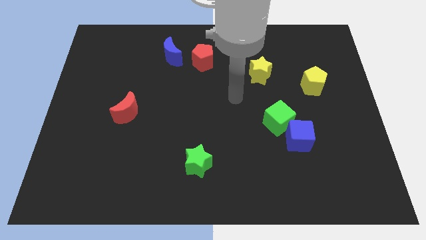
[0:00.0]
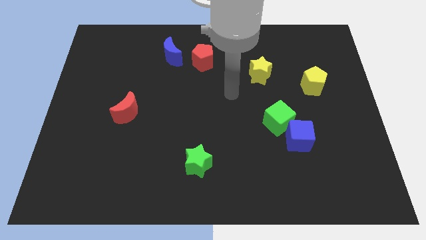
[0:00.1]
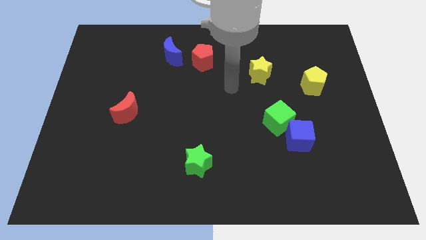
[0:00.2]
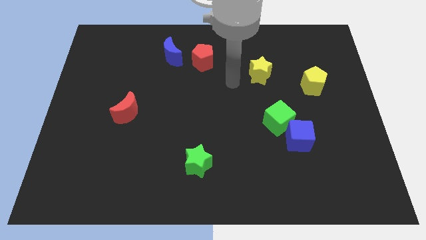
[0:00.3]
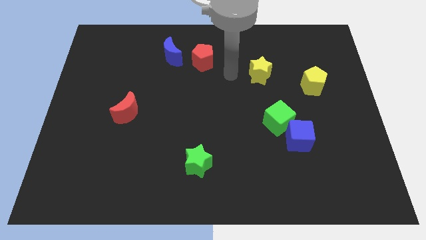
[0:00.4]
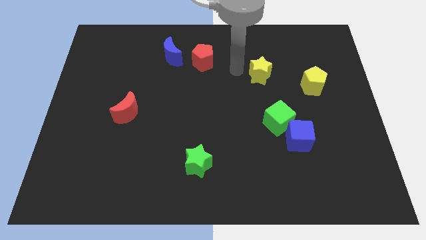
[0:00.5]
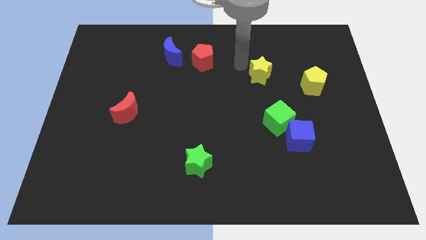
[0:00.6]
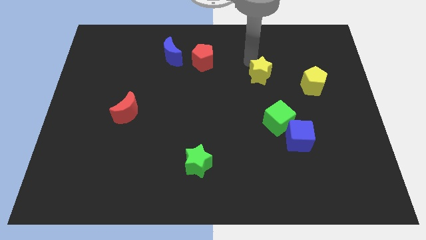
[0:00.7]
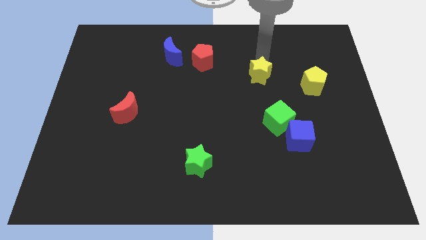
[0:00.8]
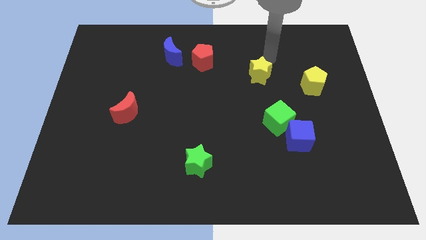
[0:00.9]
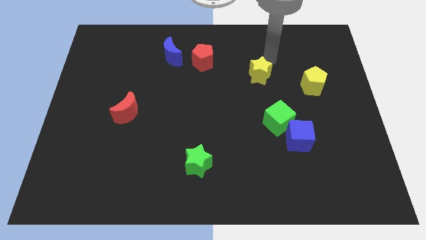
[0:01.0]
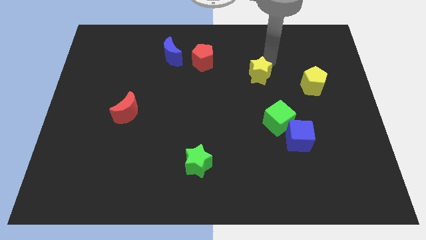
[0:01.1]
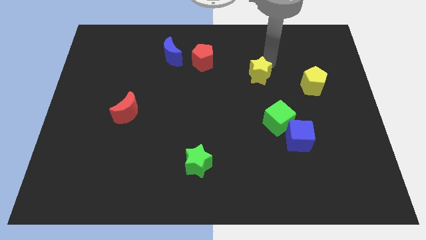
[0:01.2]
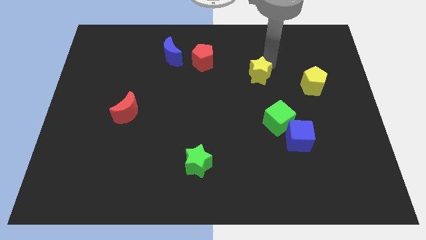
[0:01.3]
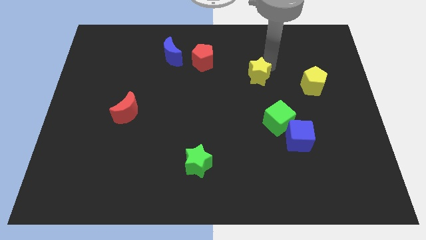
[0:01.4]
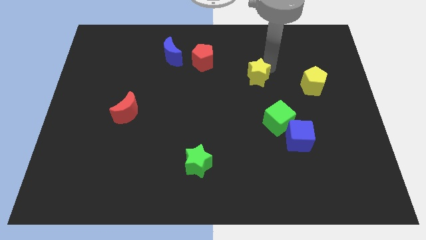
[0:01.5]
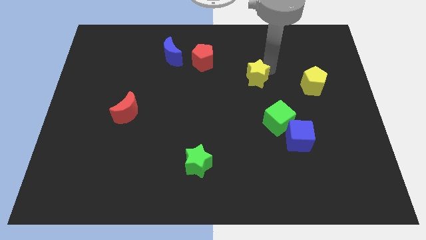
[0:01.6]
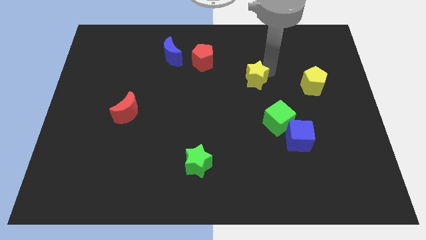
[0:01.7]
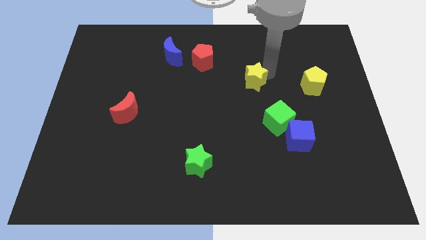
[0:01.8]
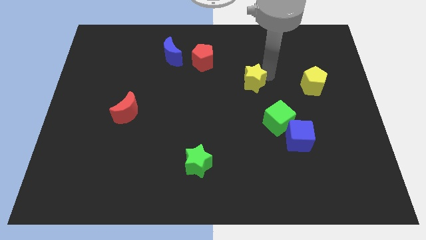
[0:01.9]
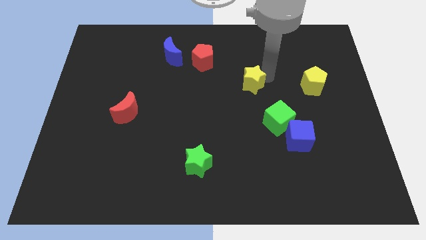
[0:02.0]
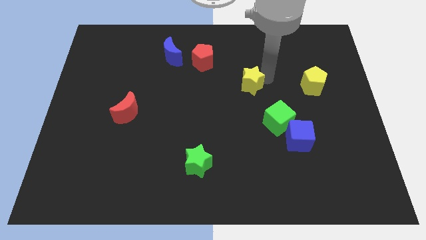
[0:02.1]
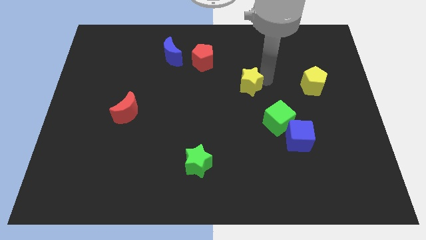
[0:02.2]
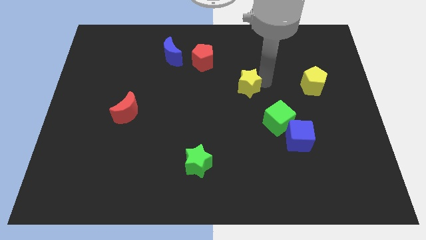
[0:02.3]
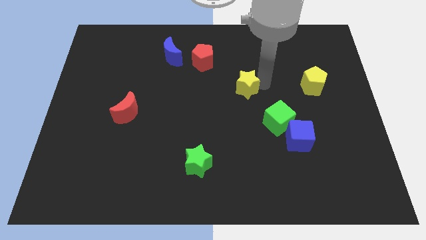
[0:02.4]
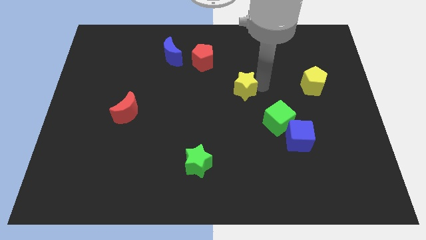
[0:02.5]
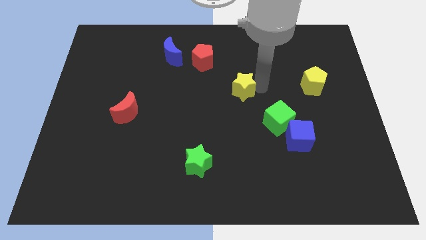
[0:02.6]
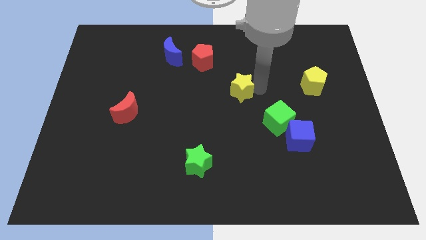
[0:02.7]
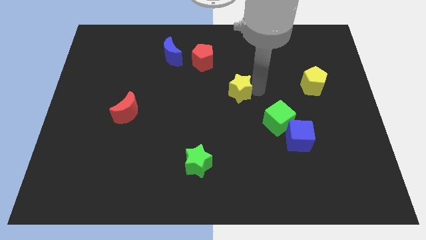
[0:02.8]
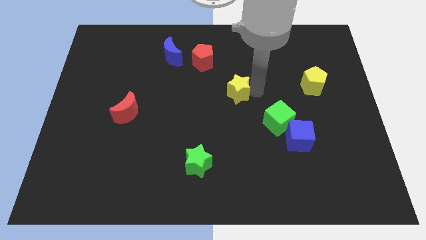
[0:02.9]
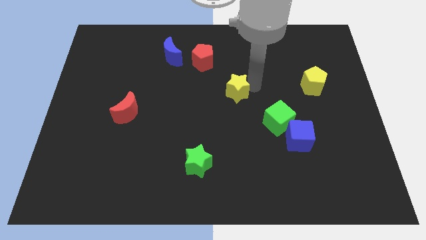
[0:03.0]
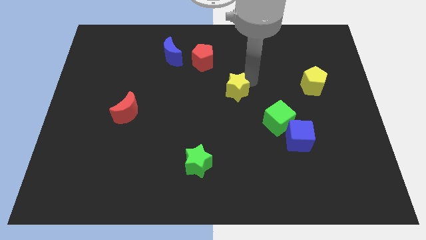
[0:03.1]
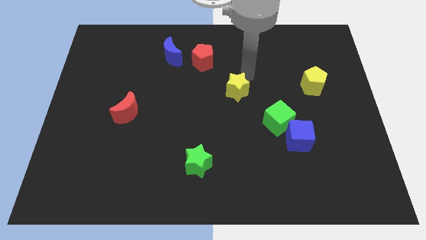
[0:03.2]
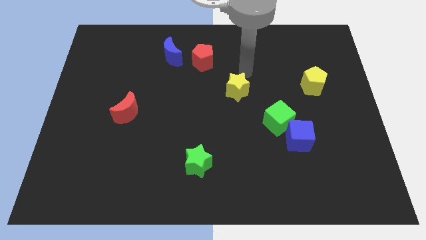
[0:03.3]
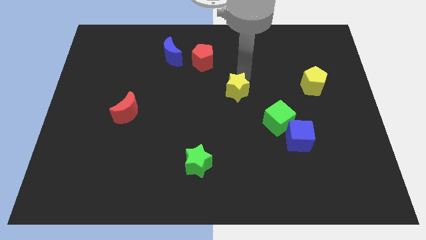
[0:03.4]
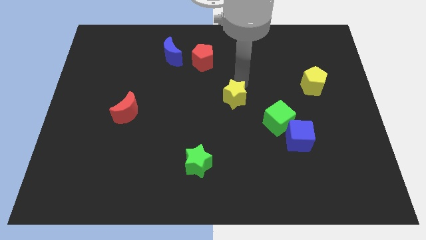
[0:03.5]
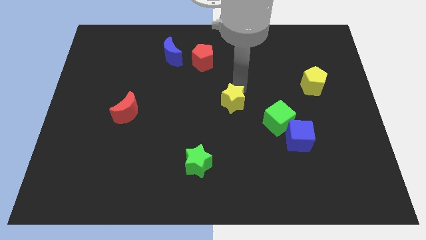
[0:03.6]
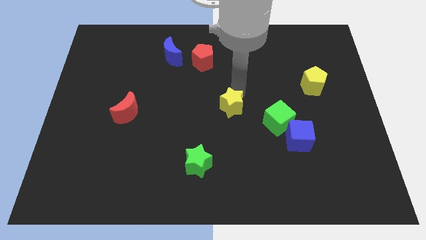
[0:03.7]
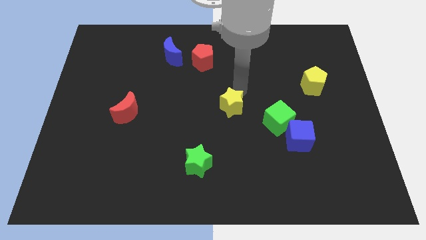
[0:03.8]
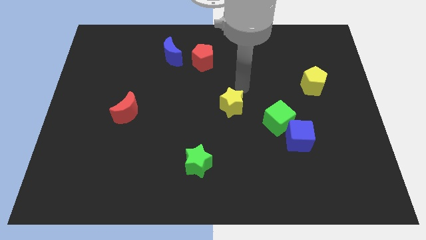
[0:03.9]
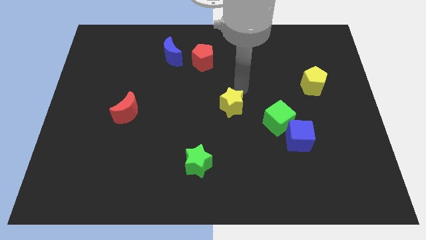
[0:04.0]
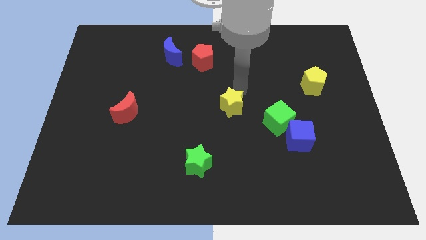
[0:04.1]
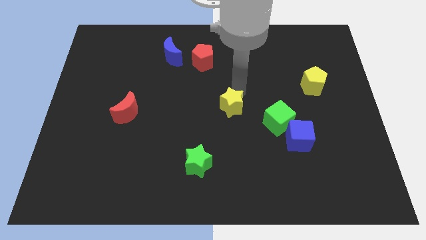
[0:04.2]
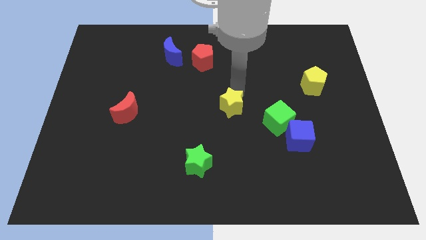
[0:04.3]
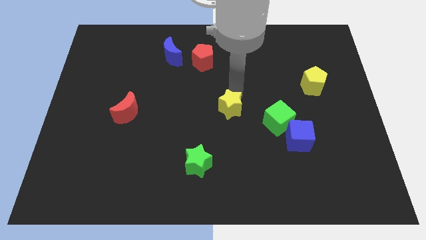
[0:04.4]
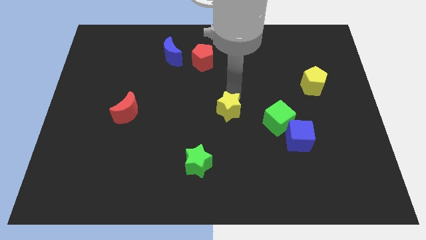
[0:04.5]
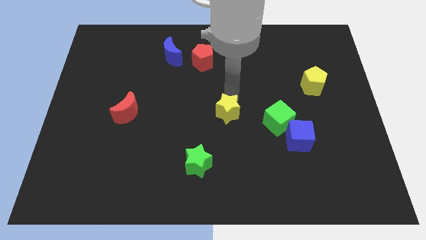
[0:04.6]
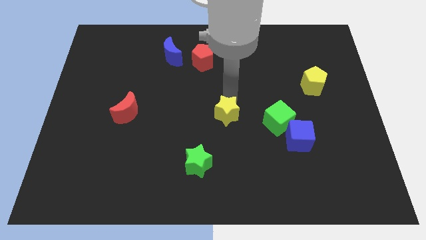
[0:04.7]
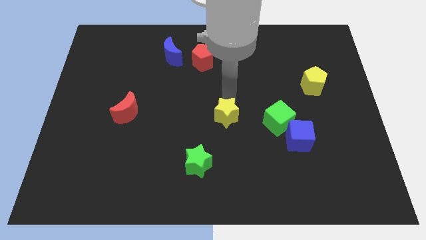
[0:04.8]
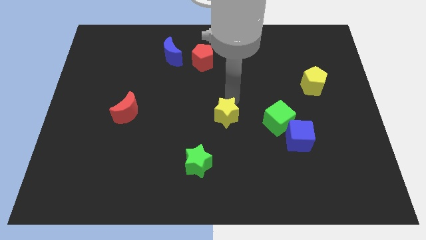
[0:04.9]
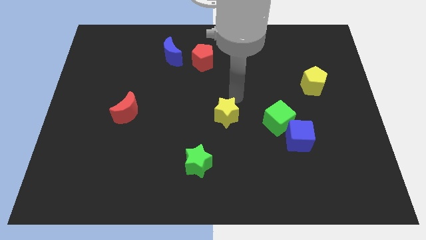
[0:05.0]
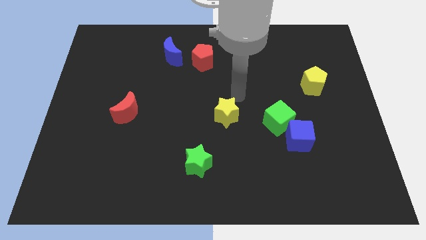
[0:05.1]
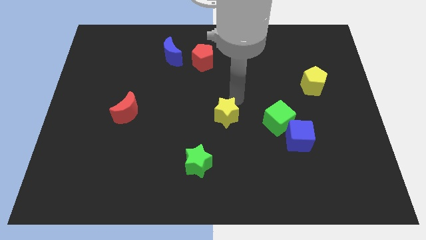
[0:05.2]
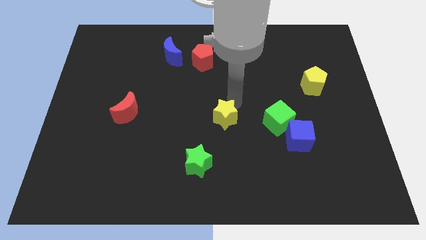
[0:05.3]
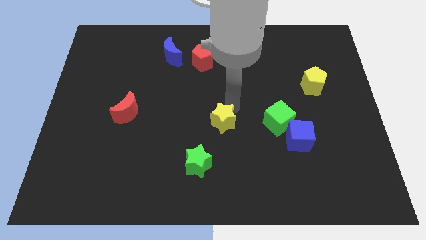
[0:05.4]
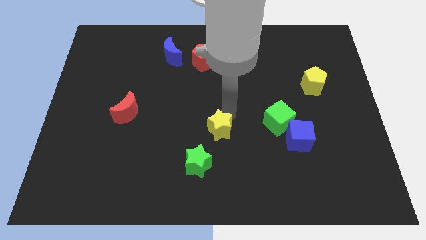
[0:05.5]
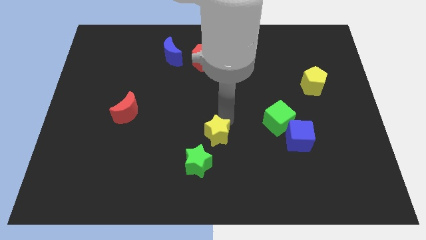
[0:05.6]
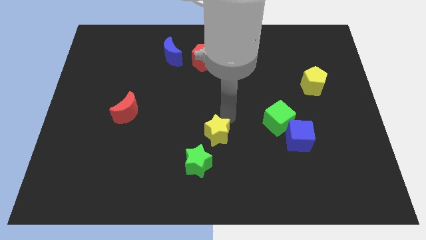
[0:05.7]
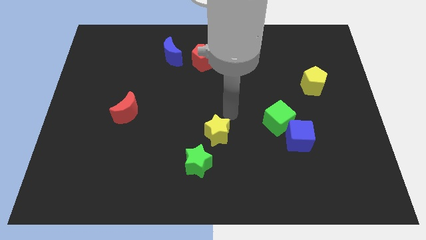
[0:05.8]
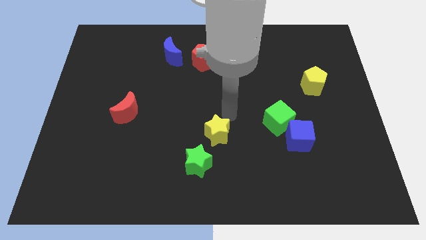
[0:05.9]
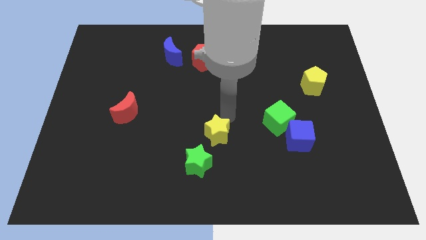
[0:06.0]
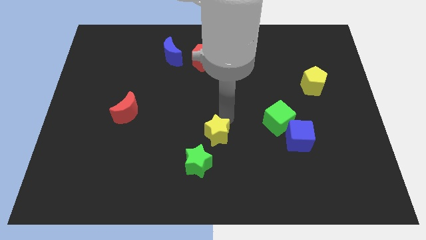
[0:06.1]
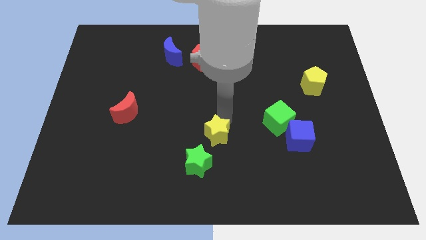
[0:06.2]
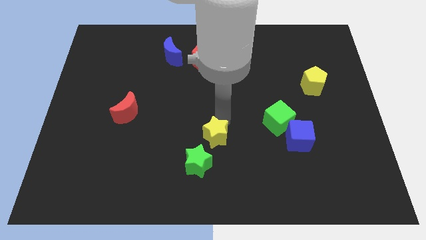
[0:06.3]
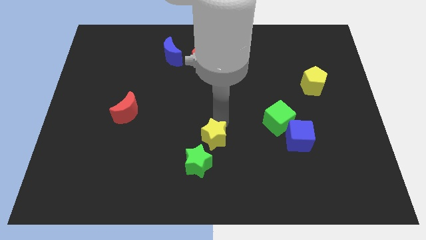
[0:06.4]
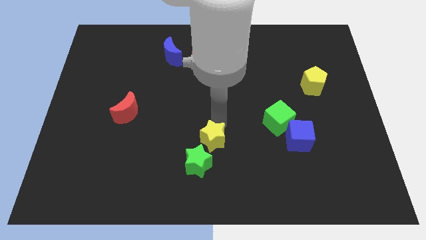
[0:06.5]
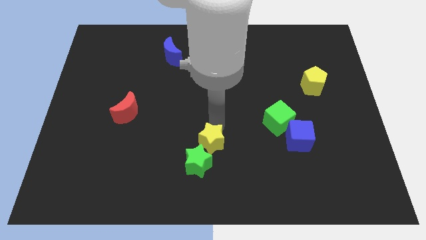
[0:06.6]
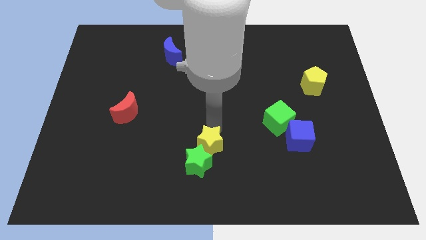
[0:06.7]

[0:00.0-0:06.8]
push the yellow star close to the green star
